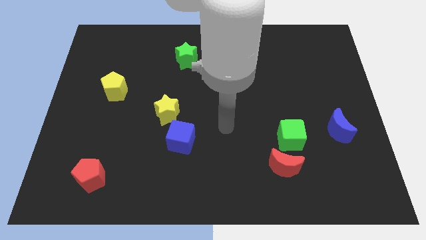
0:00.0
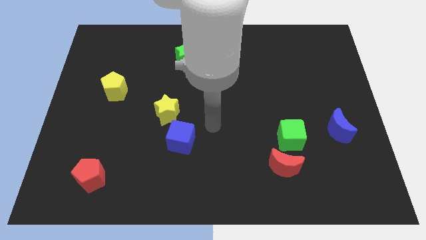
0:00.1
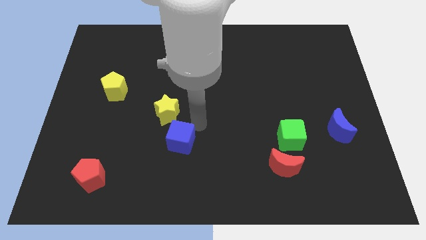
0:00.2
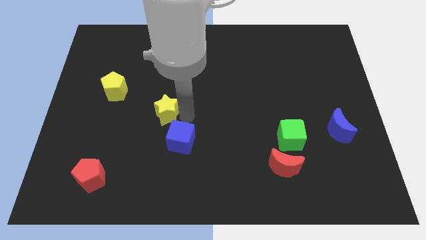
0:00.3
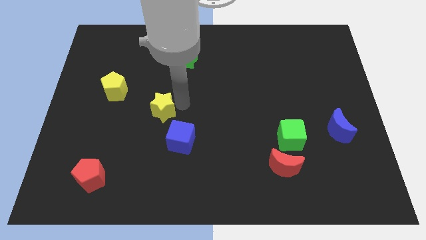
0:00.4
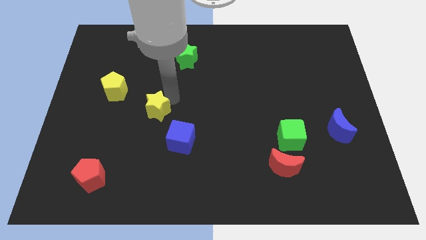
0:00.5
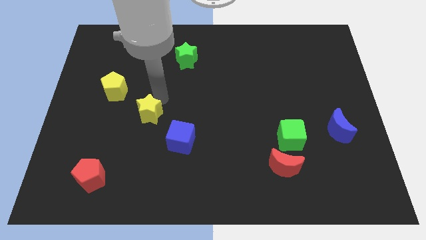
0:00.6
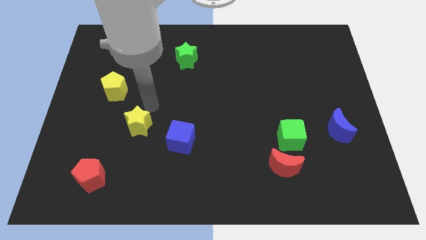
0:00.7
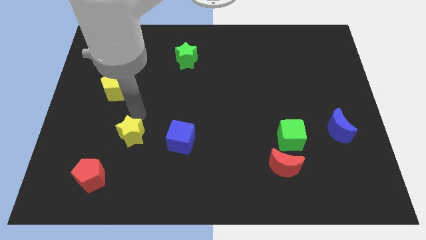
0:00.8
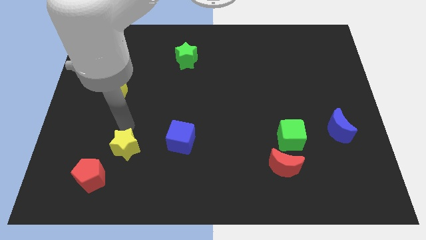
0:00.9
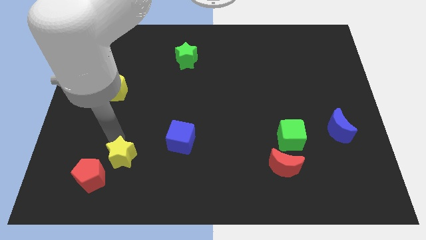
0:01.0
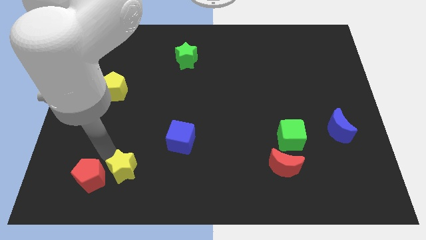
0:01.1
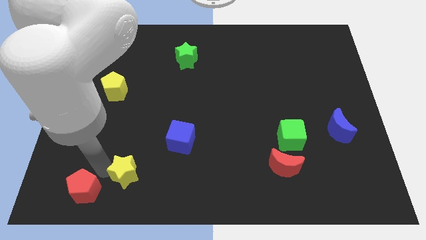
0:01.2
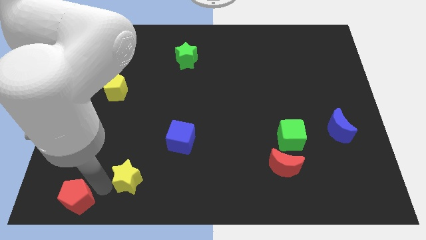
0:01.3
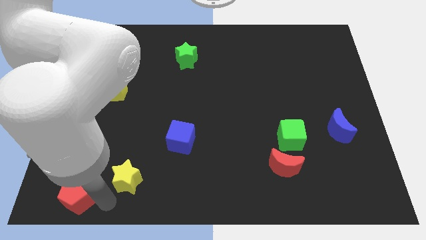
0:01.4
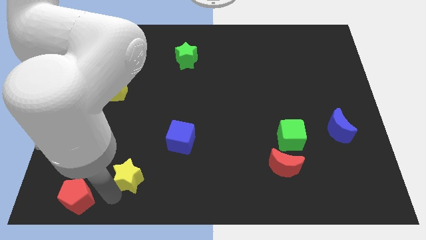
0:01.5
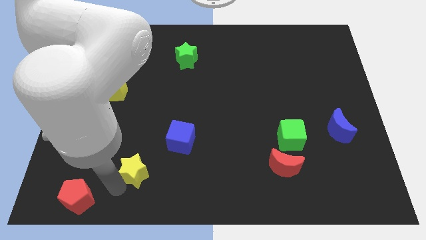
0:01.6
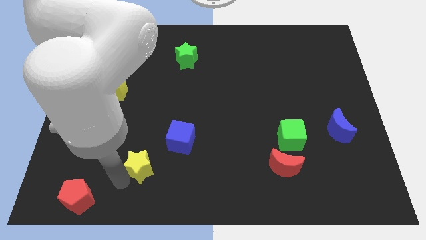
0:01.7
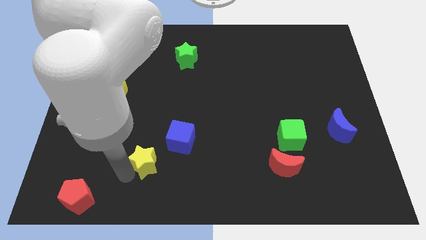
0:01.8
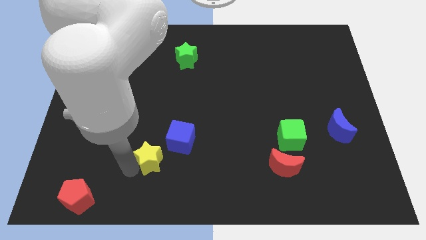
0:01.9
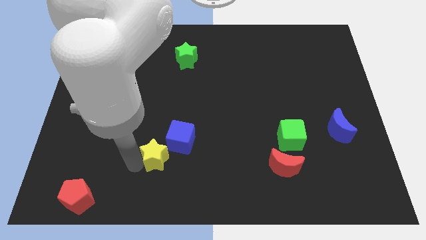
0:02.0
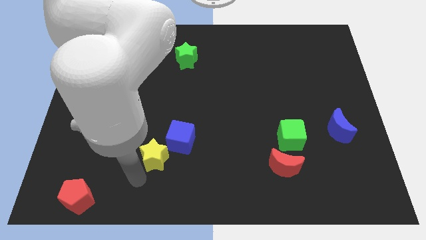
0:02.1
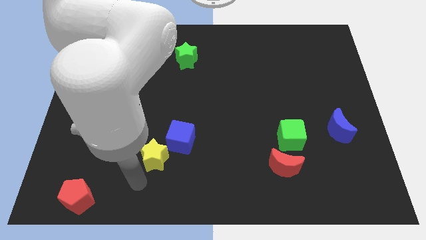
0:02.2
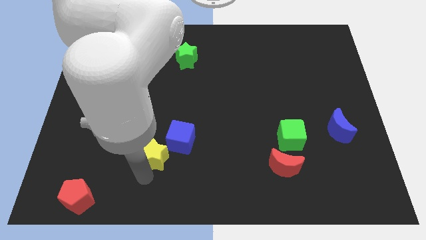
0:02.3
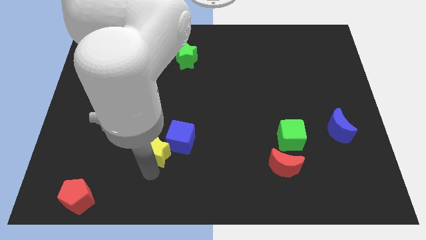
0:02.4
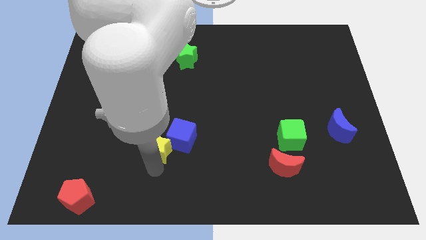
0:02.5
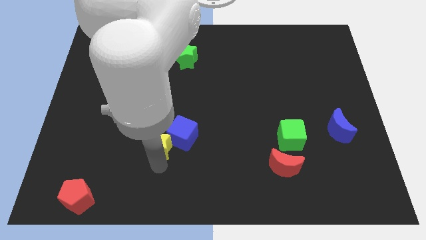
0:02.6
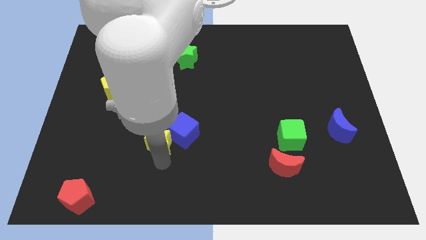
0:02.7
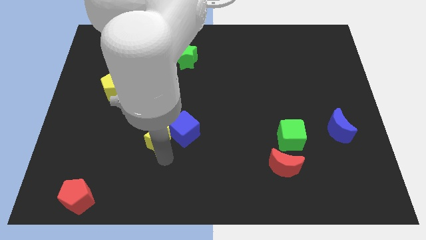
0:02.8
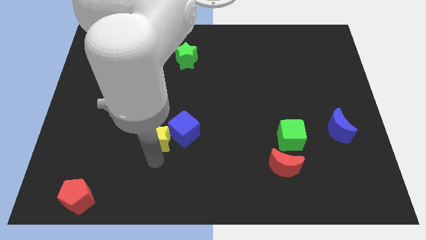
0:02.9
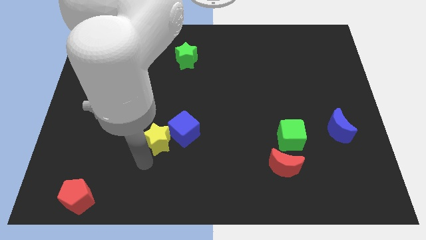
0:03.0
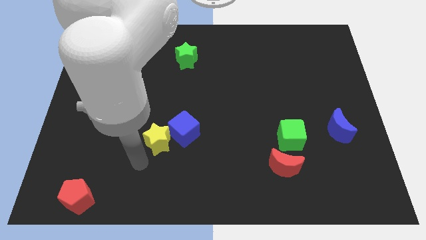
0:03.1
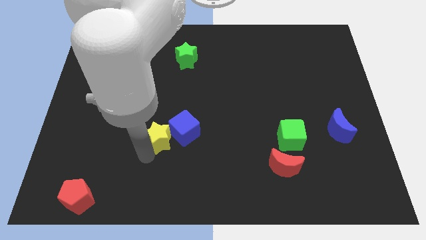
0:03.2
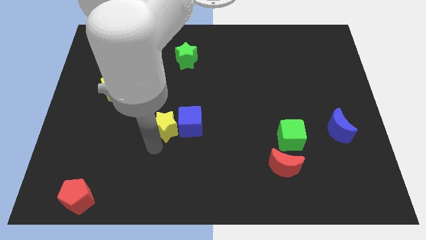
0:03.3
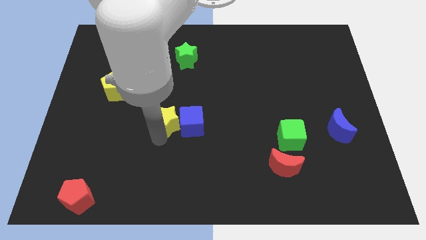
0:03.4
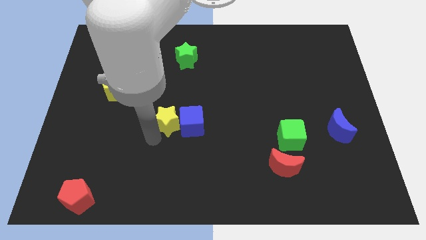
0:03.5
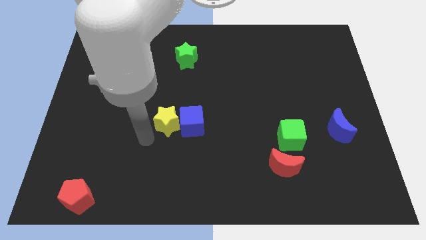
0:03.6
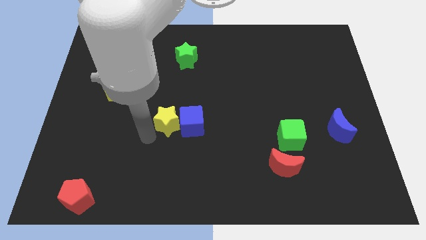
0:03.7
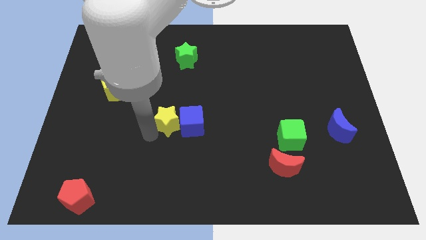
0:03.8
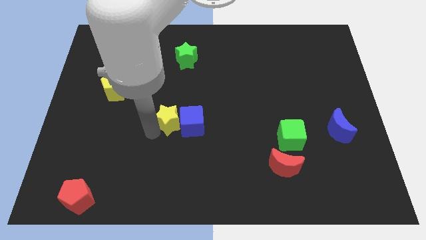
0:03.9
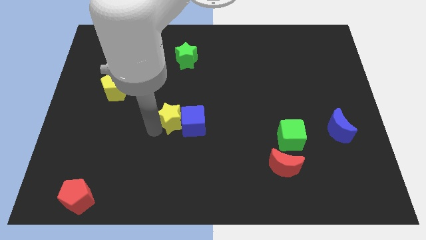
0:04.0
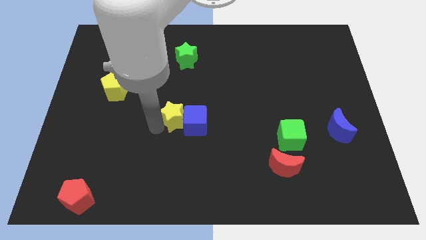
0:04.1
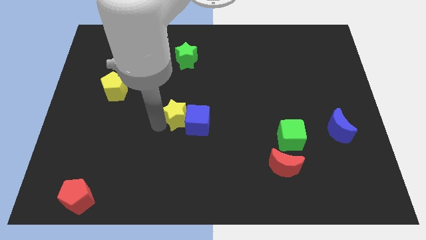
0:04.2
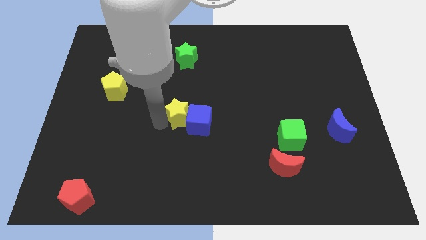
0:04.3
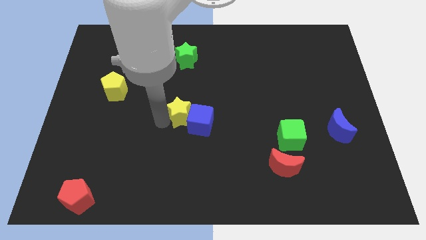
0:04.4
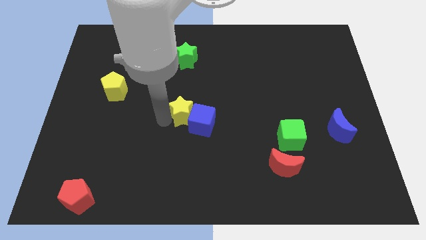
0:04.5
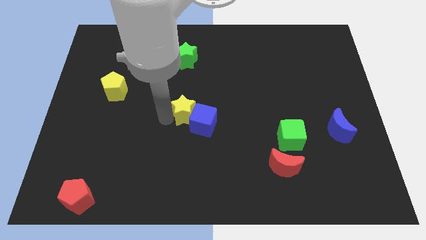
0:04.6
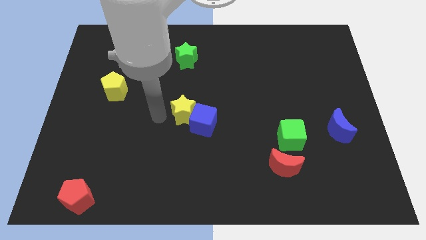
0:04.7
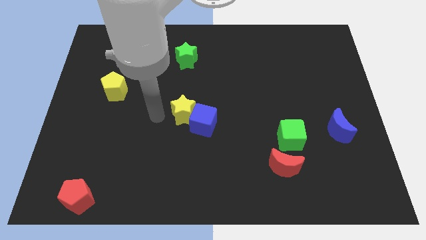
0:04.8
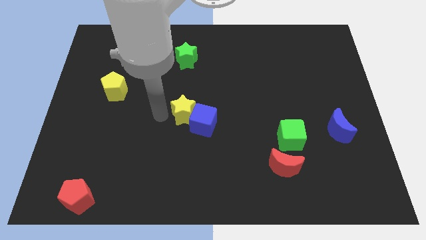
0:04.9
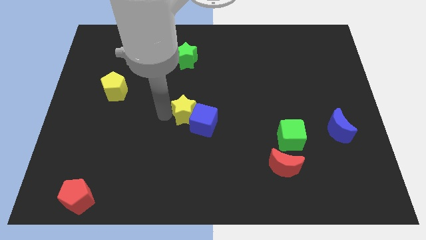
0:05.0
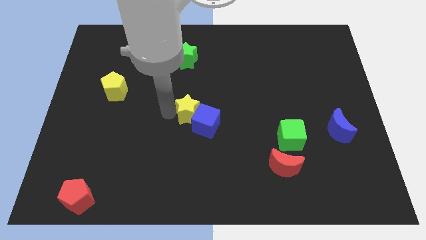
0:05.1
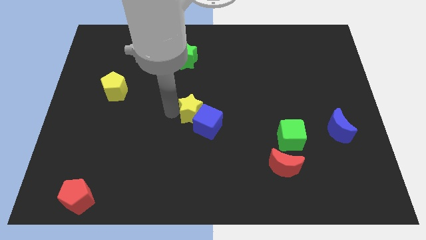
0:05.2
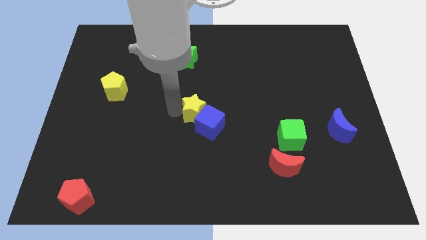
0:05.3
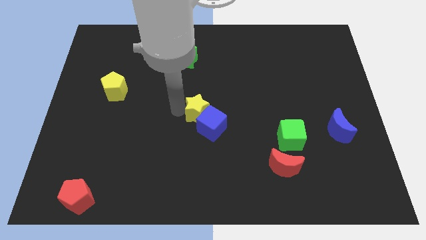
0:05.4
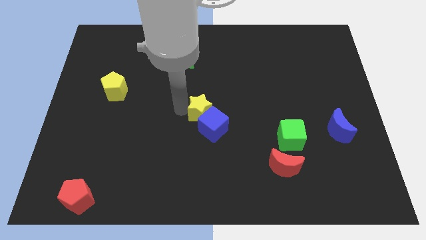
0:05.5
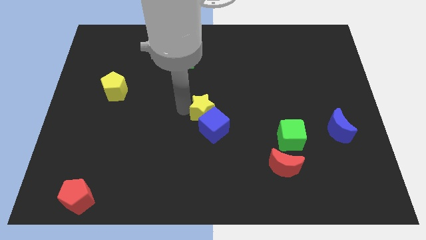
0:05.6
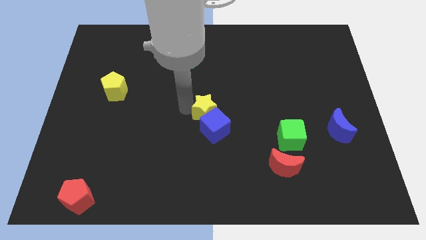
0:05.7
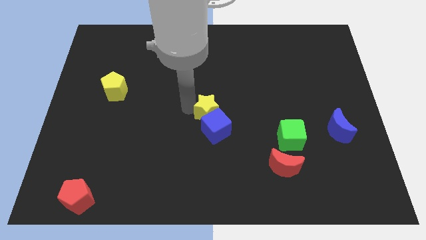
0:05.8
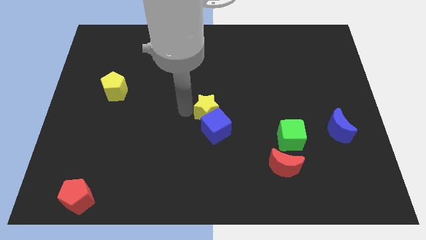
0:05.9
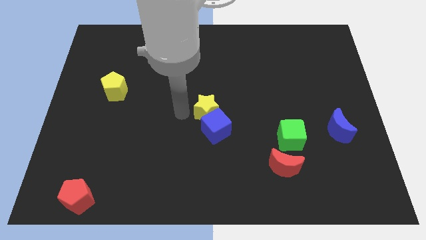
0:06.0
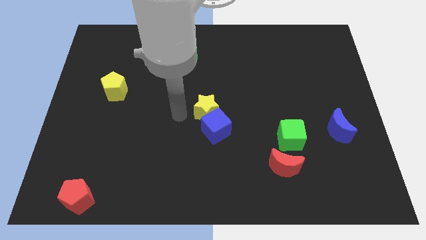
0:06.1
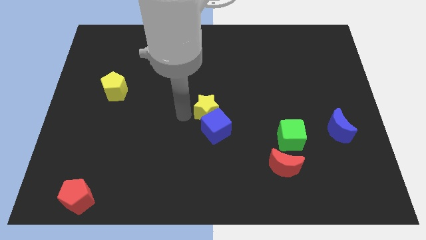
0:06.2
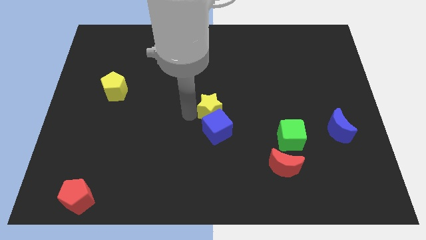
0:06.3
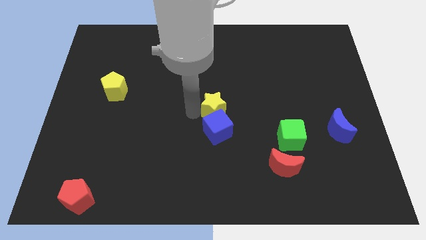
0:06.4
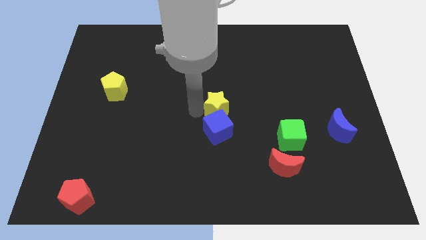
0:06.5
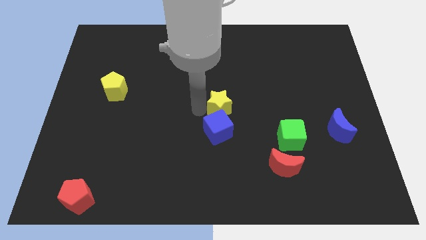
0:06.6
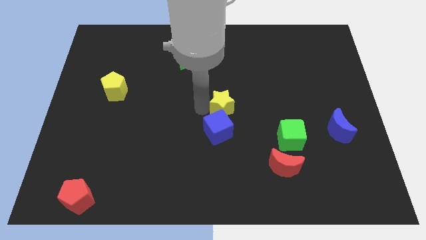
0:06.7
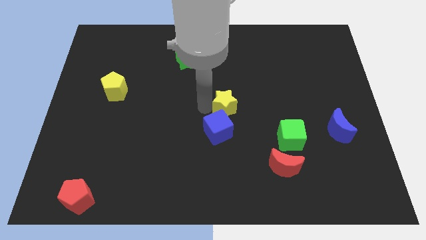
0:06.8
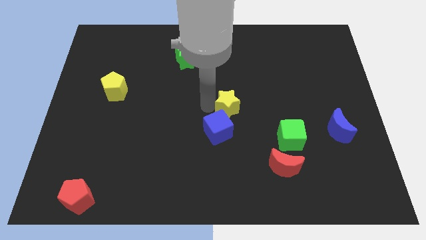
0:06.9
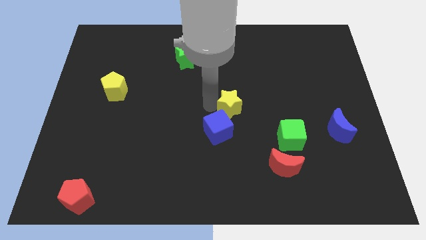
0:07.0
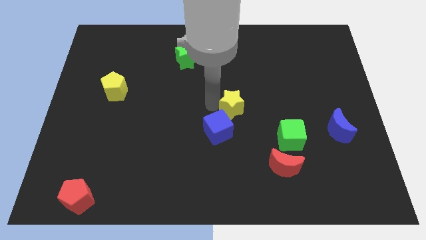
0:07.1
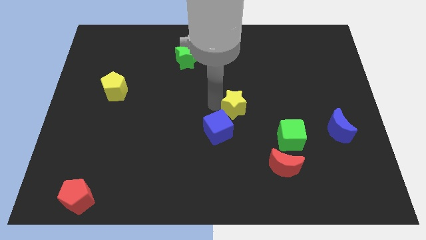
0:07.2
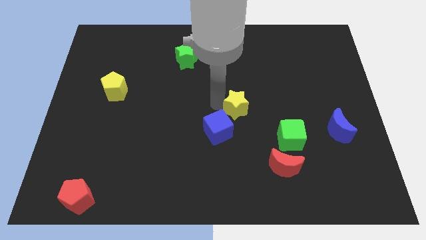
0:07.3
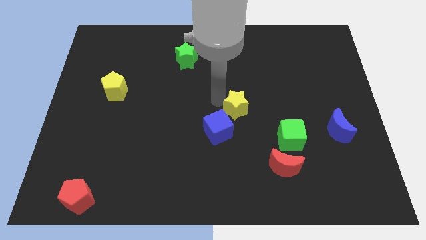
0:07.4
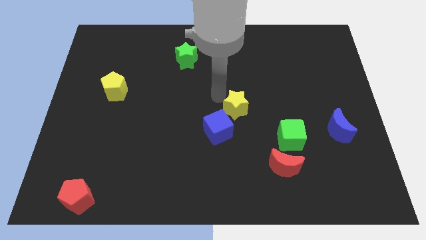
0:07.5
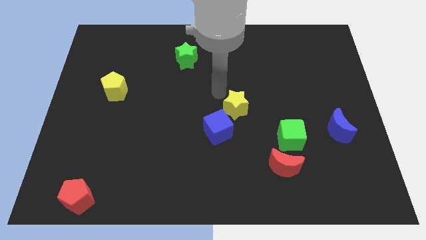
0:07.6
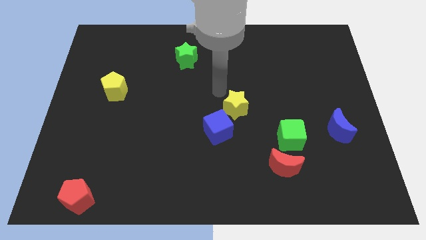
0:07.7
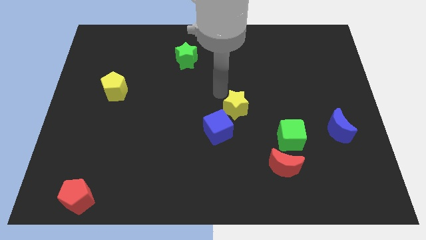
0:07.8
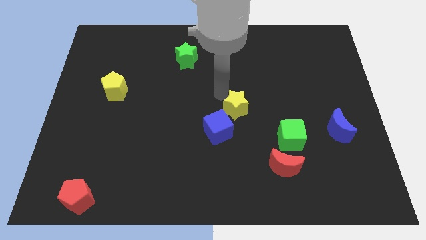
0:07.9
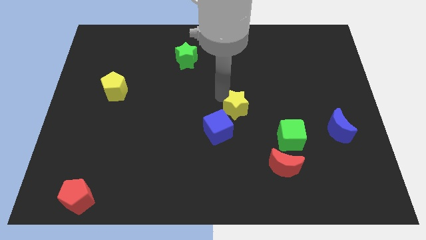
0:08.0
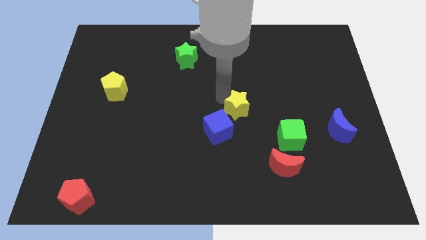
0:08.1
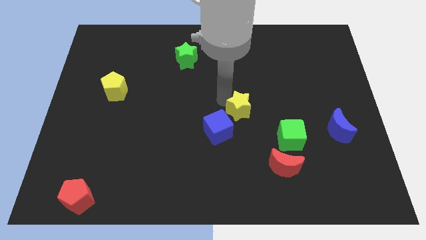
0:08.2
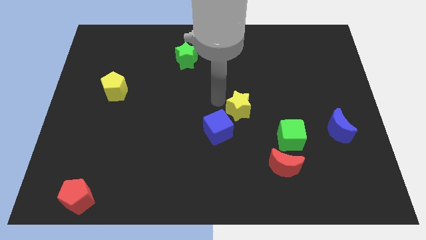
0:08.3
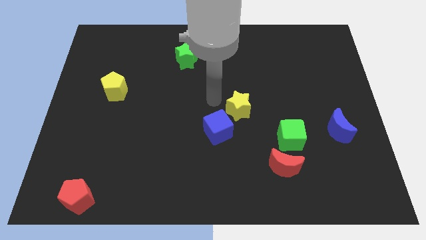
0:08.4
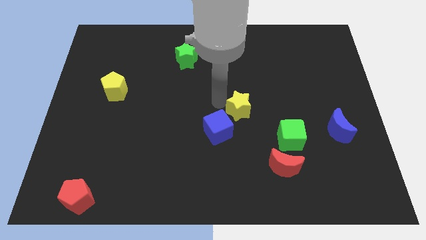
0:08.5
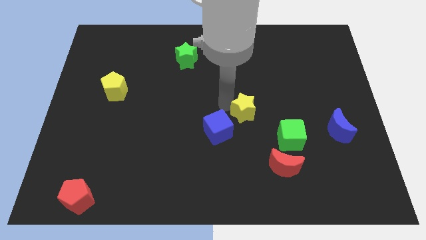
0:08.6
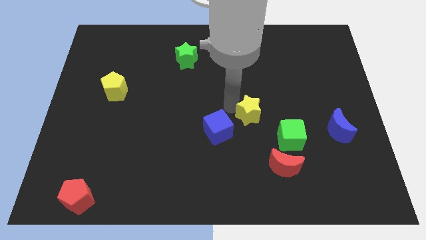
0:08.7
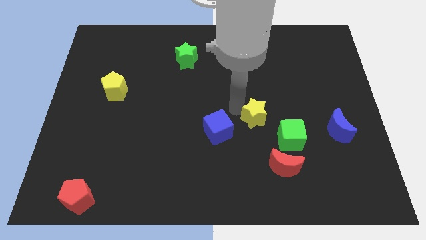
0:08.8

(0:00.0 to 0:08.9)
move the yellow star to the right
